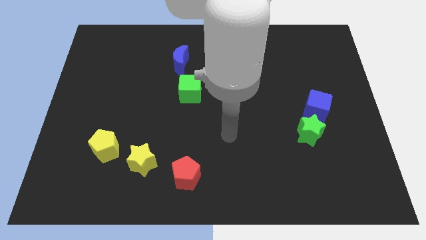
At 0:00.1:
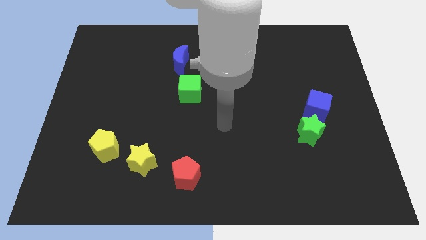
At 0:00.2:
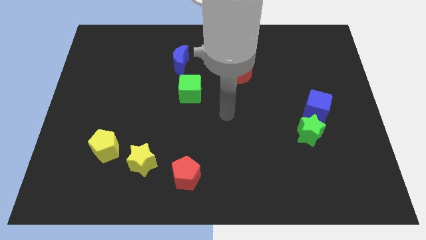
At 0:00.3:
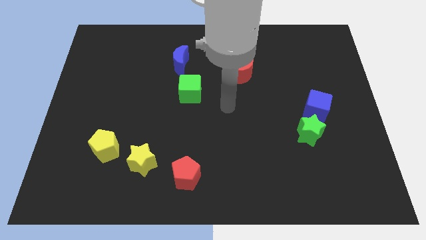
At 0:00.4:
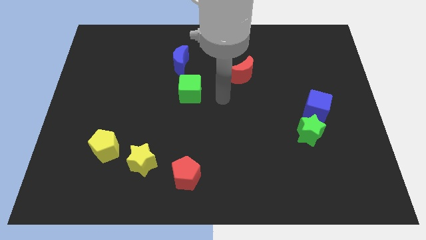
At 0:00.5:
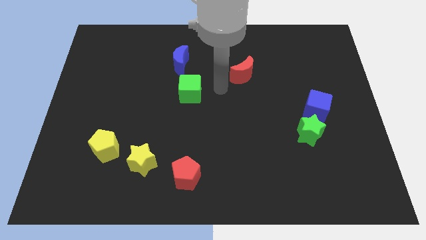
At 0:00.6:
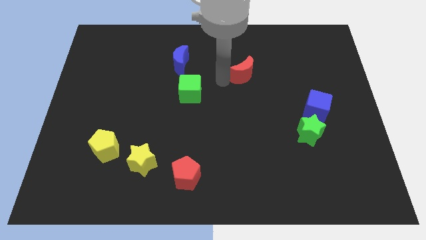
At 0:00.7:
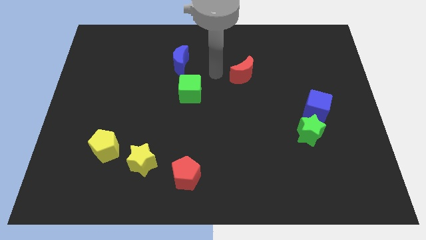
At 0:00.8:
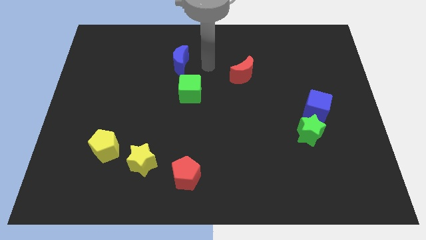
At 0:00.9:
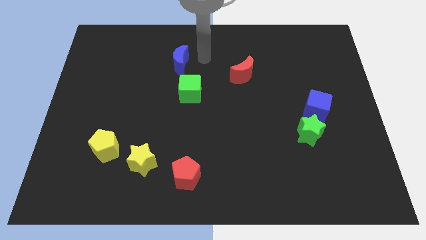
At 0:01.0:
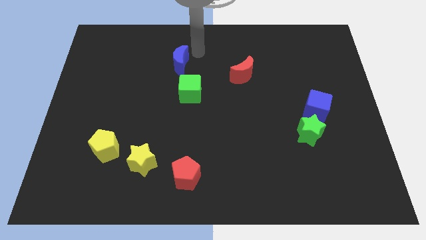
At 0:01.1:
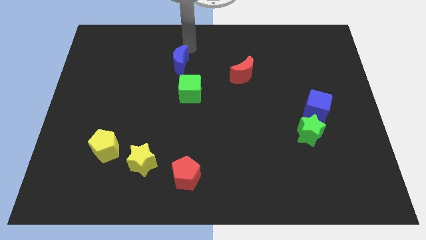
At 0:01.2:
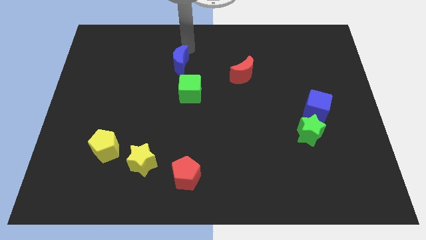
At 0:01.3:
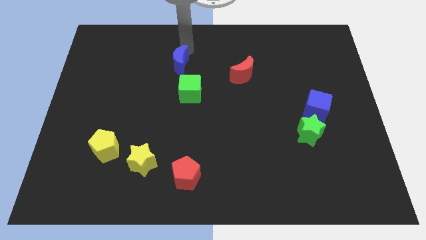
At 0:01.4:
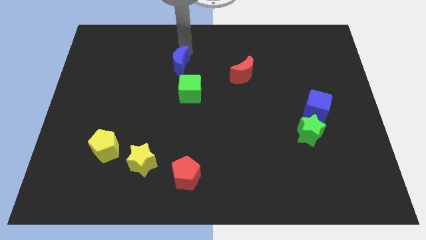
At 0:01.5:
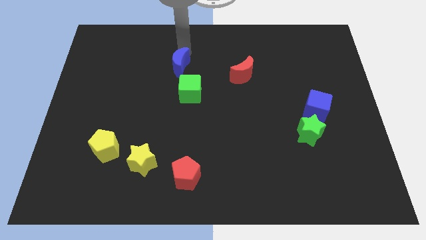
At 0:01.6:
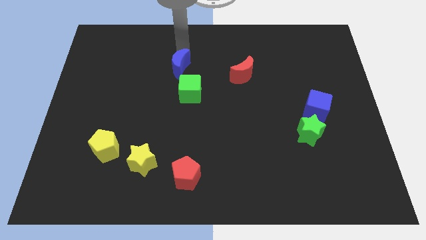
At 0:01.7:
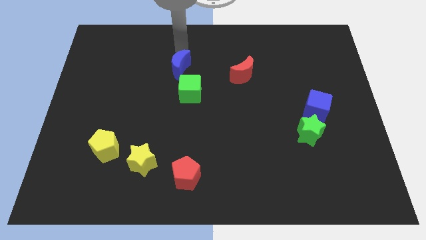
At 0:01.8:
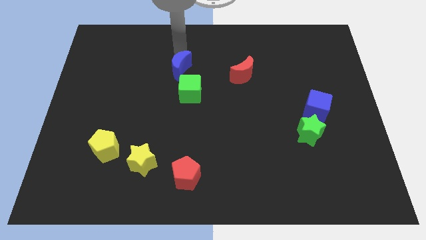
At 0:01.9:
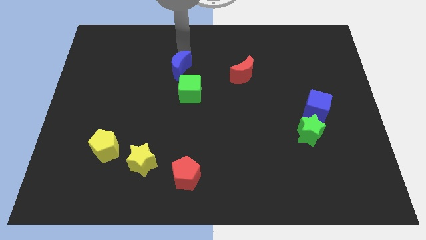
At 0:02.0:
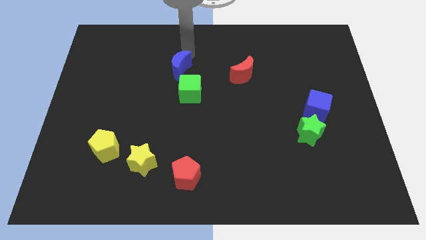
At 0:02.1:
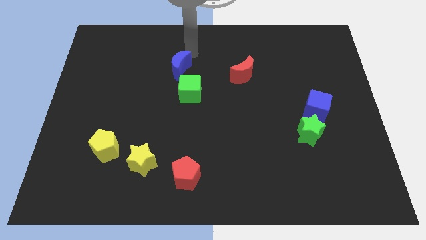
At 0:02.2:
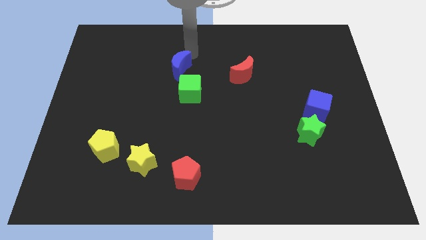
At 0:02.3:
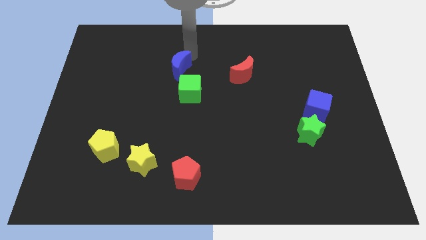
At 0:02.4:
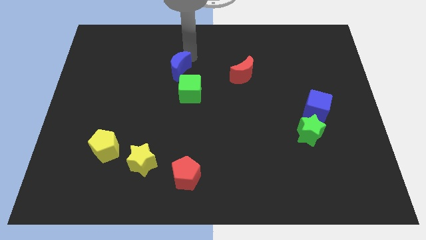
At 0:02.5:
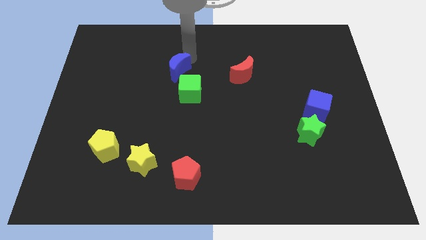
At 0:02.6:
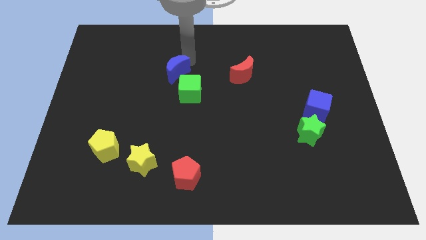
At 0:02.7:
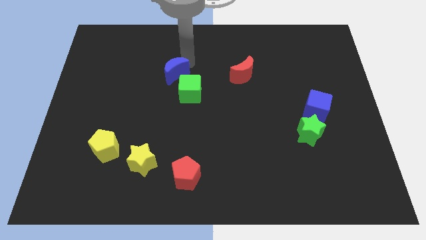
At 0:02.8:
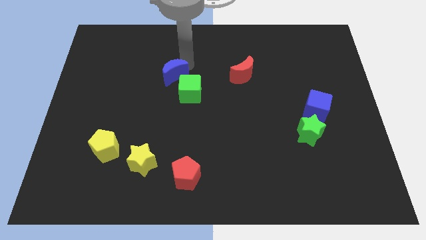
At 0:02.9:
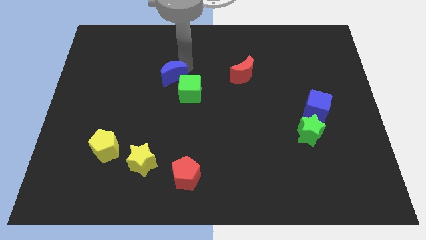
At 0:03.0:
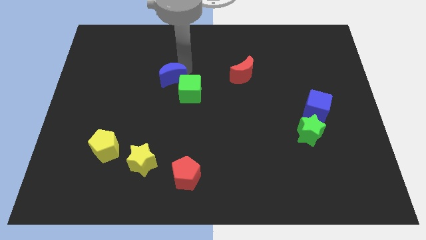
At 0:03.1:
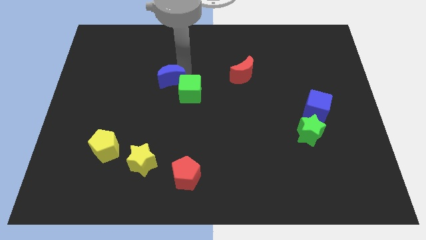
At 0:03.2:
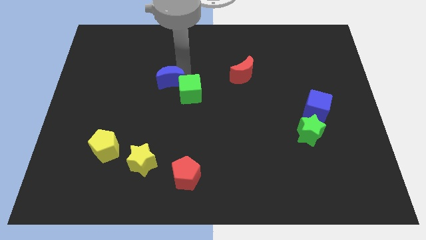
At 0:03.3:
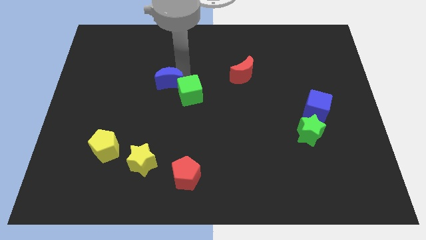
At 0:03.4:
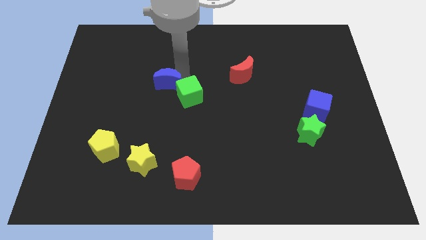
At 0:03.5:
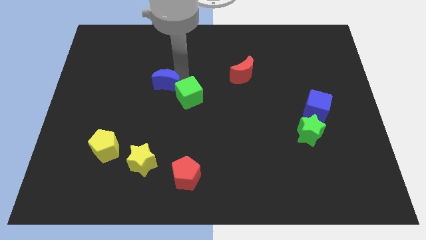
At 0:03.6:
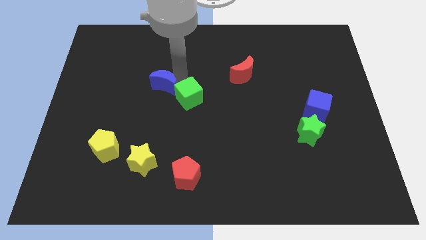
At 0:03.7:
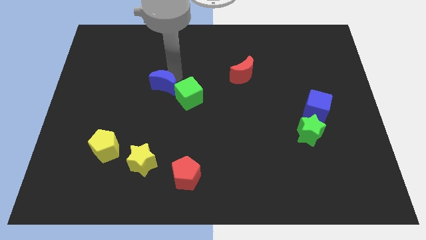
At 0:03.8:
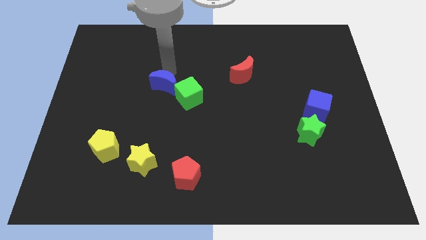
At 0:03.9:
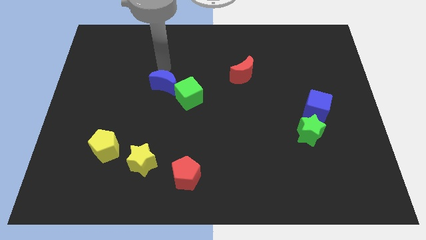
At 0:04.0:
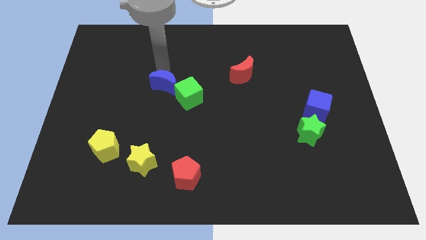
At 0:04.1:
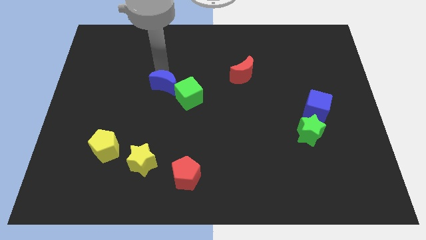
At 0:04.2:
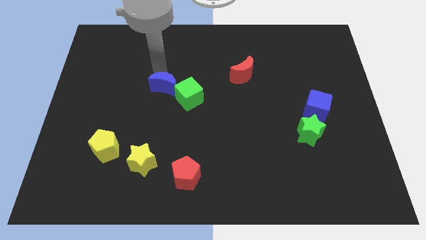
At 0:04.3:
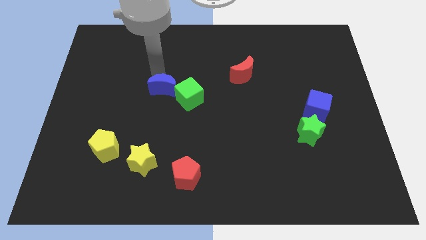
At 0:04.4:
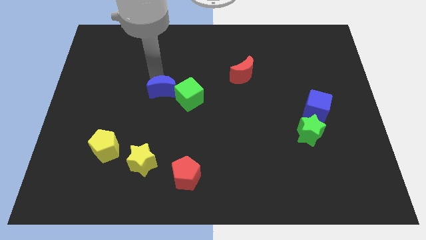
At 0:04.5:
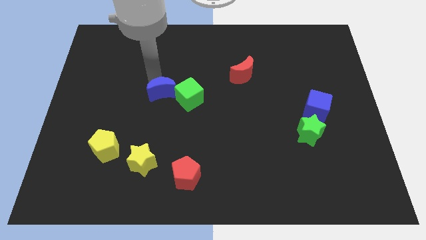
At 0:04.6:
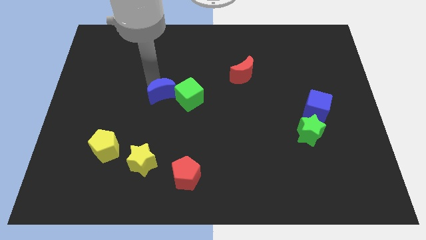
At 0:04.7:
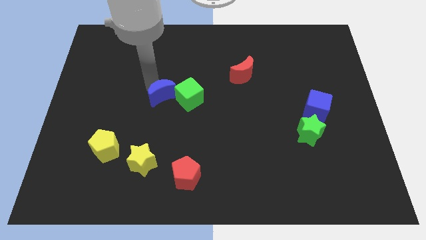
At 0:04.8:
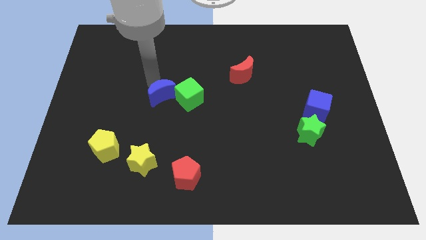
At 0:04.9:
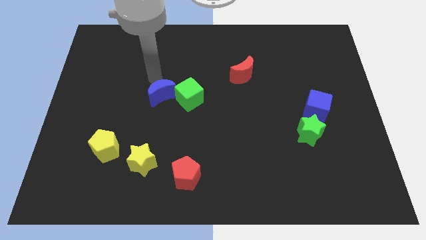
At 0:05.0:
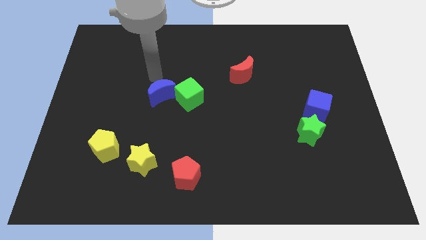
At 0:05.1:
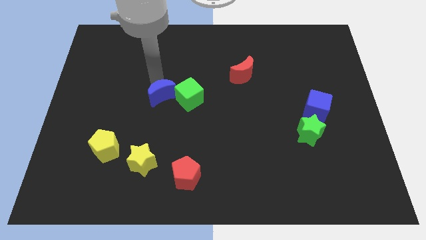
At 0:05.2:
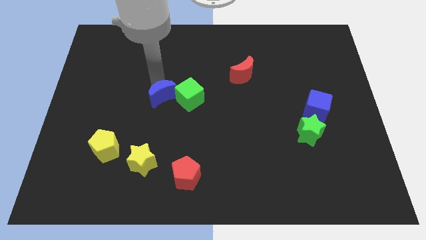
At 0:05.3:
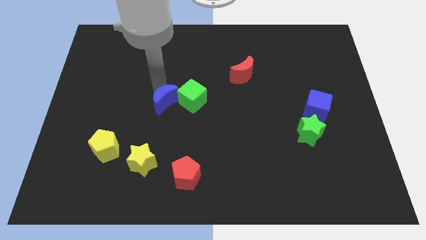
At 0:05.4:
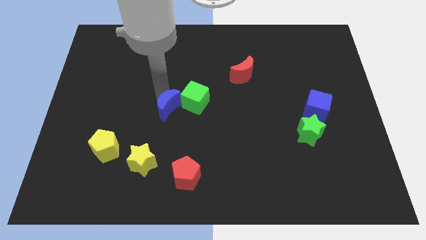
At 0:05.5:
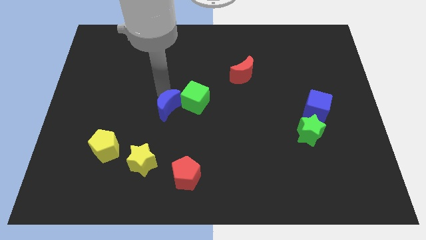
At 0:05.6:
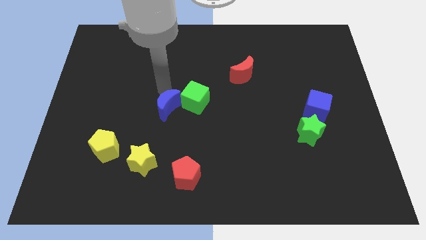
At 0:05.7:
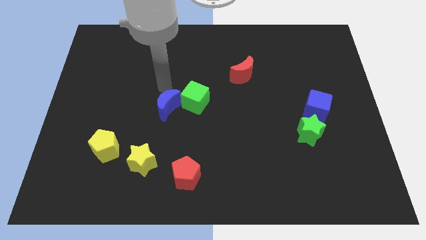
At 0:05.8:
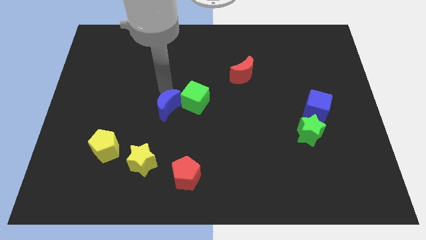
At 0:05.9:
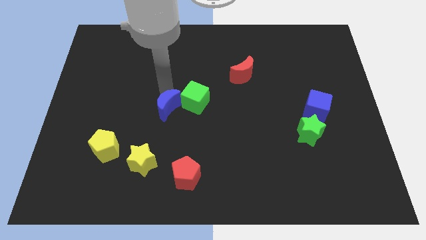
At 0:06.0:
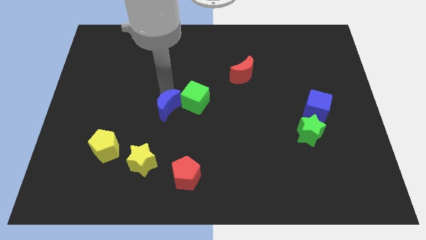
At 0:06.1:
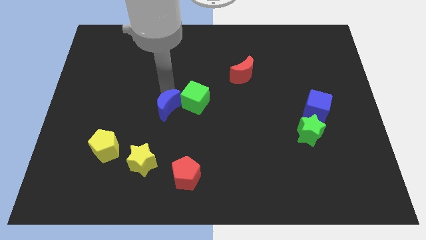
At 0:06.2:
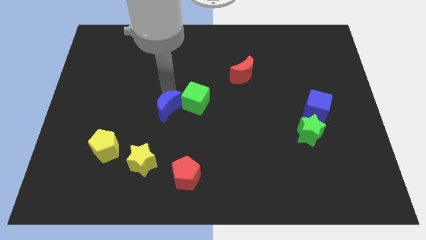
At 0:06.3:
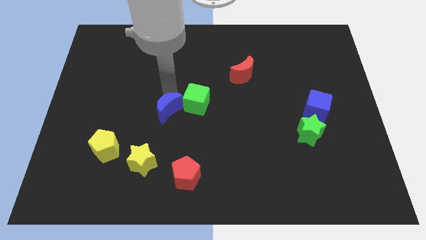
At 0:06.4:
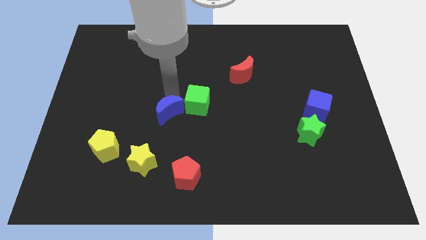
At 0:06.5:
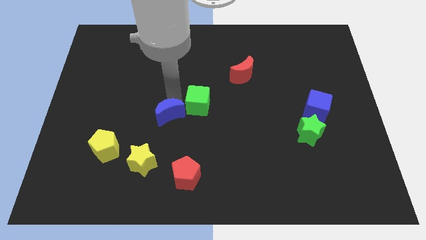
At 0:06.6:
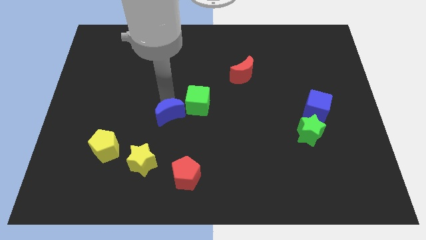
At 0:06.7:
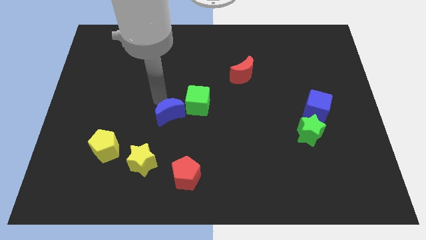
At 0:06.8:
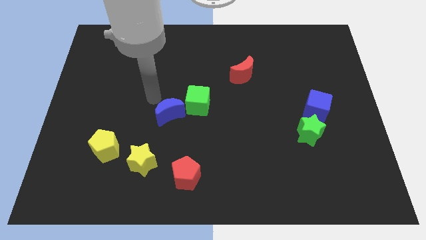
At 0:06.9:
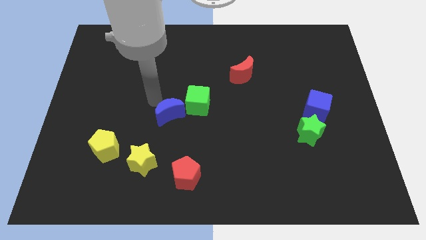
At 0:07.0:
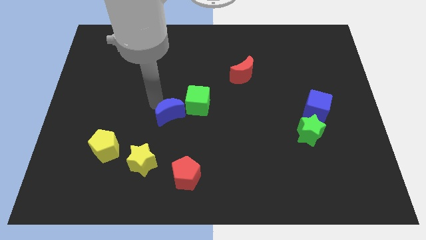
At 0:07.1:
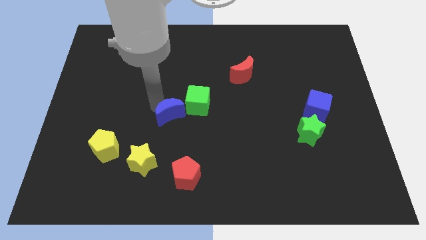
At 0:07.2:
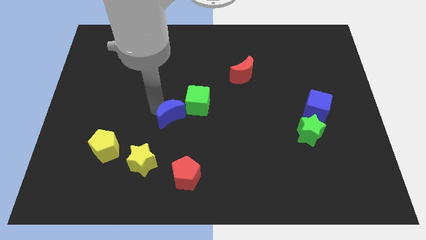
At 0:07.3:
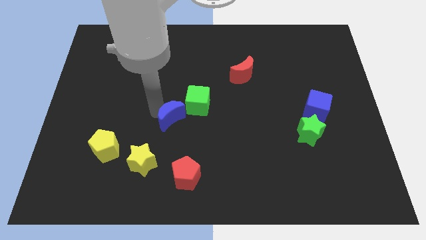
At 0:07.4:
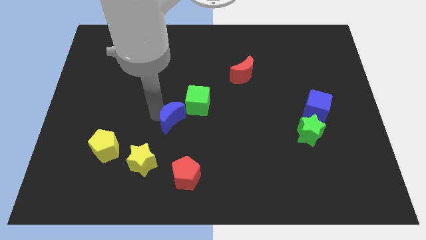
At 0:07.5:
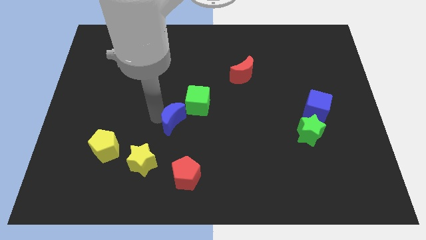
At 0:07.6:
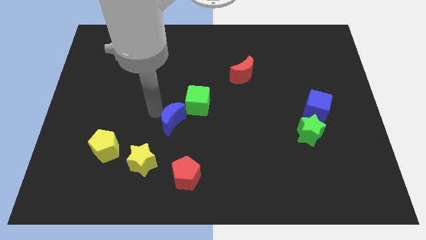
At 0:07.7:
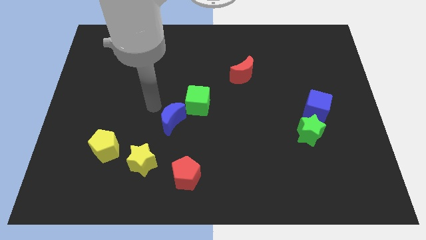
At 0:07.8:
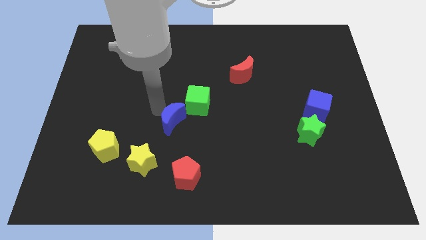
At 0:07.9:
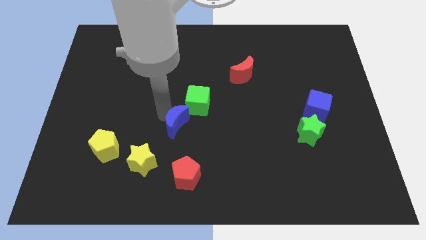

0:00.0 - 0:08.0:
put the blue moon to the bottom side of the green cube
